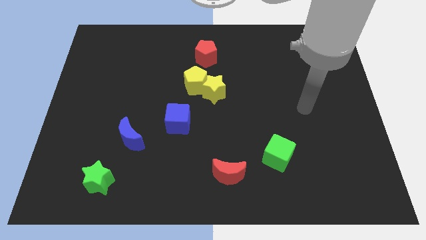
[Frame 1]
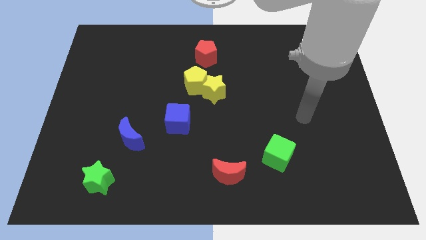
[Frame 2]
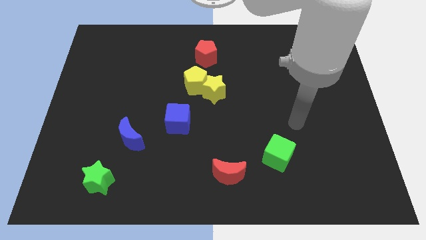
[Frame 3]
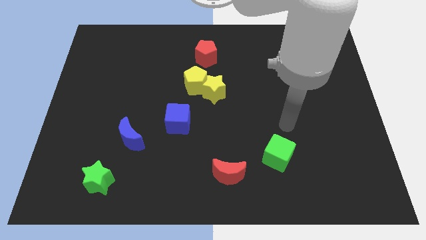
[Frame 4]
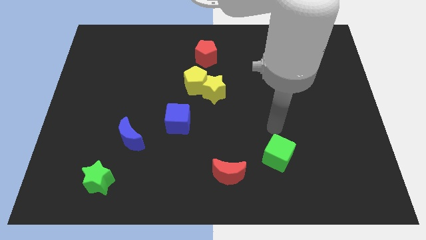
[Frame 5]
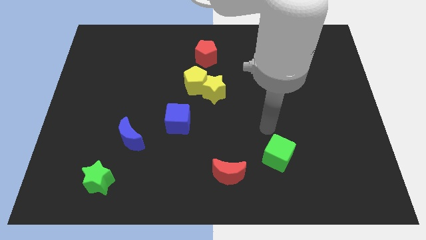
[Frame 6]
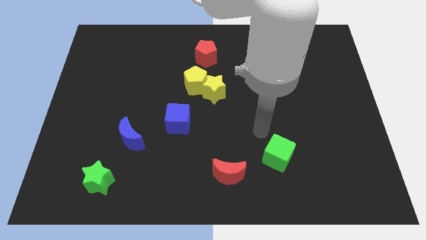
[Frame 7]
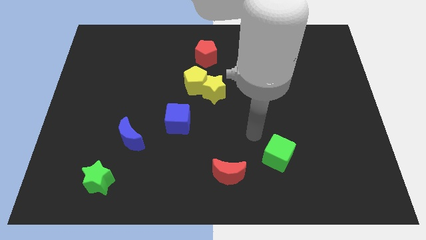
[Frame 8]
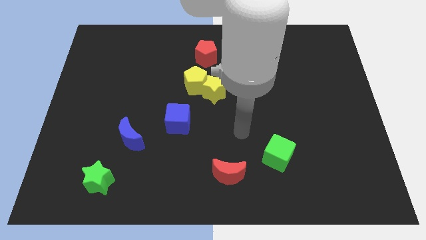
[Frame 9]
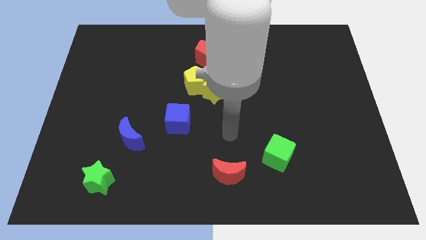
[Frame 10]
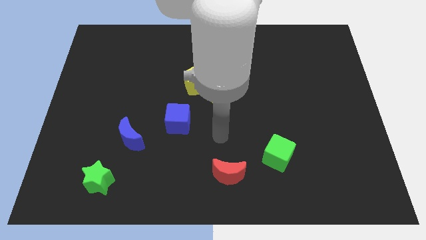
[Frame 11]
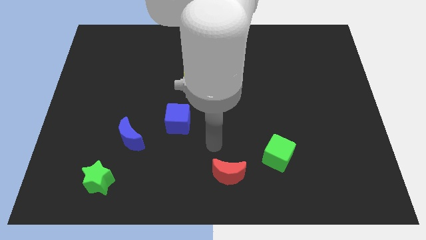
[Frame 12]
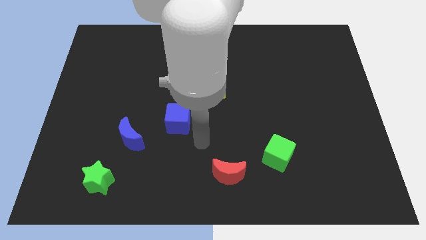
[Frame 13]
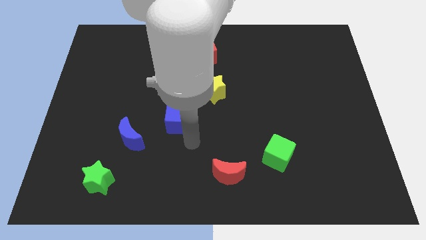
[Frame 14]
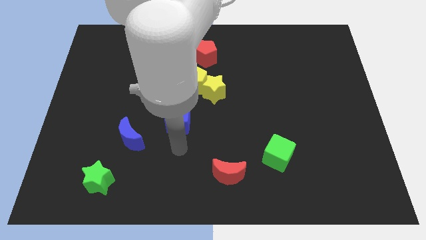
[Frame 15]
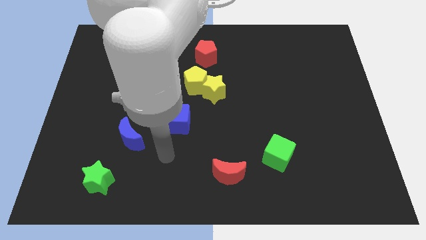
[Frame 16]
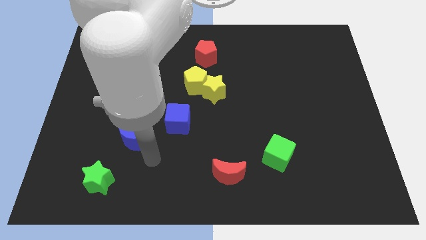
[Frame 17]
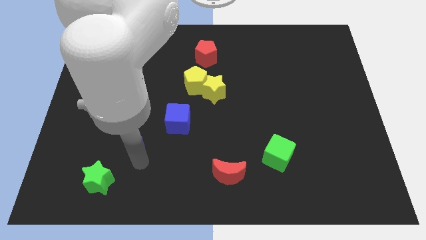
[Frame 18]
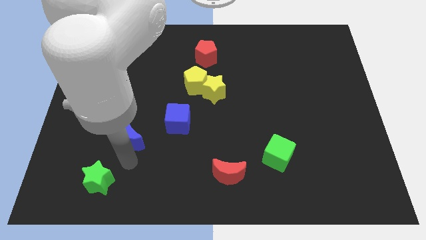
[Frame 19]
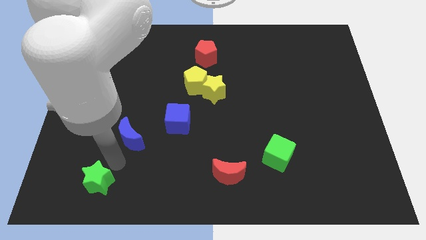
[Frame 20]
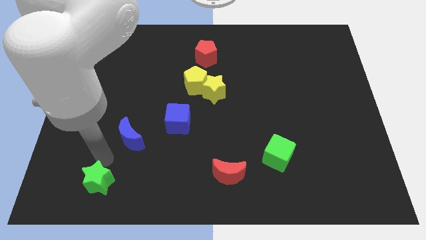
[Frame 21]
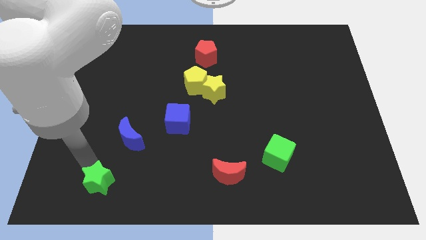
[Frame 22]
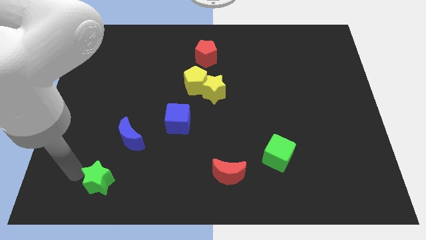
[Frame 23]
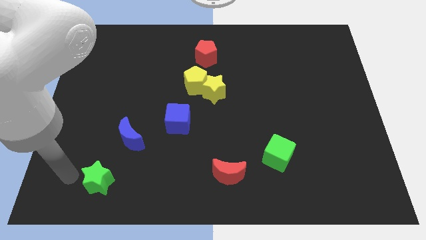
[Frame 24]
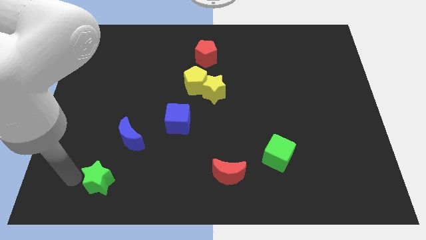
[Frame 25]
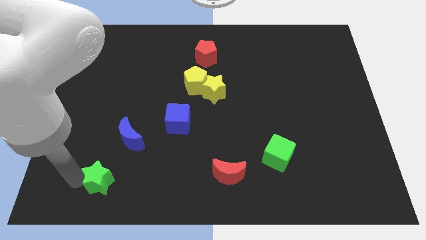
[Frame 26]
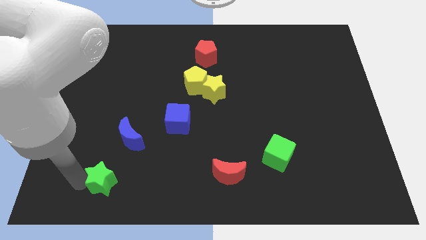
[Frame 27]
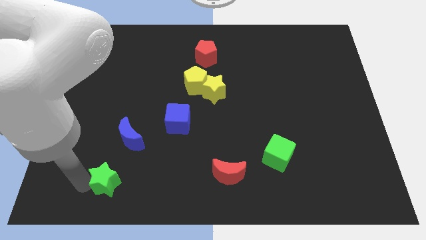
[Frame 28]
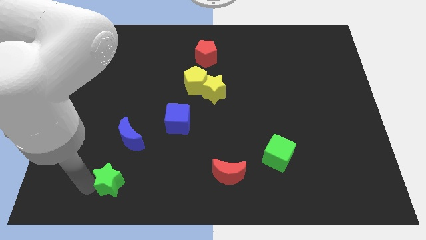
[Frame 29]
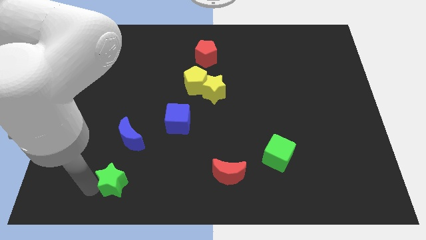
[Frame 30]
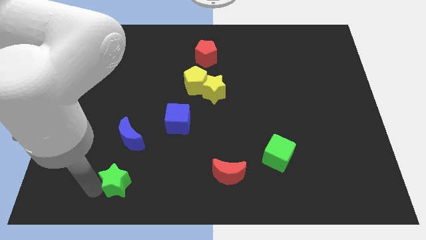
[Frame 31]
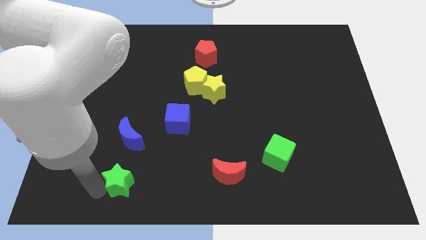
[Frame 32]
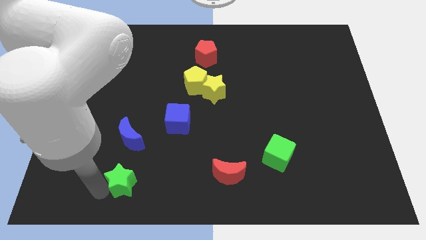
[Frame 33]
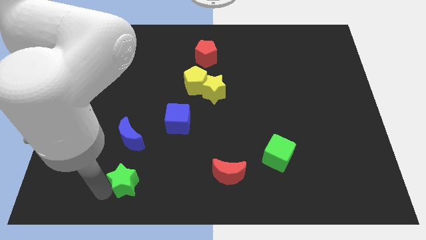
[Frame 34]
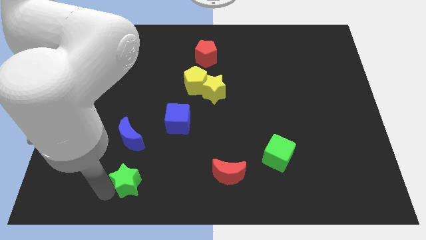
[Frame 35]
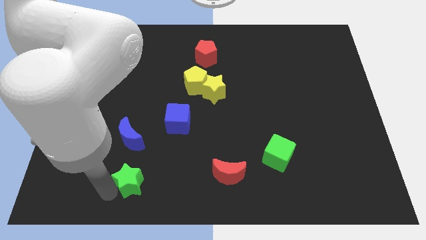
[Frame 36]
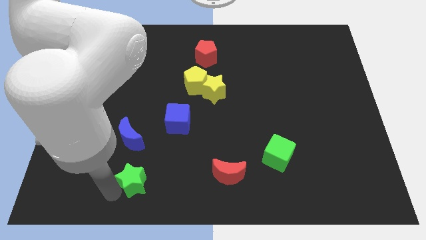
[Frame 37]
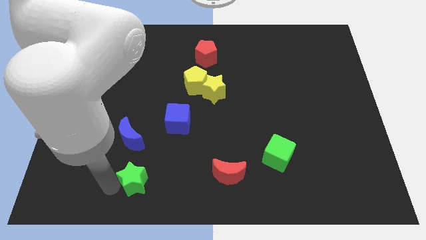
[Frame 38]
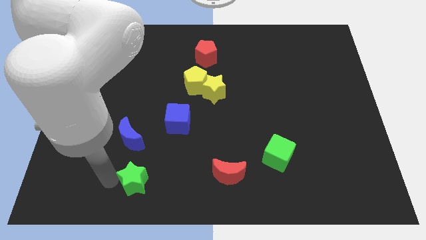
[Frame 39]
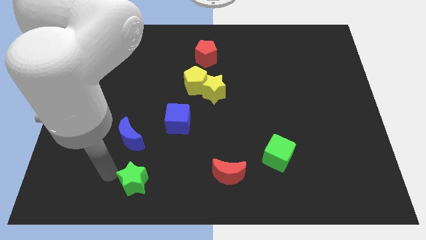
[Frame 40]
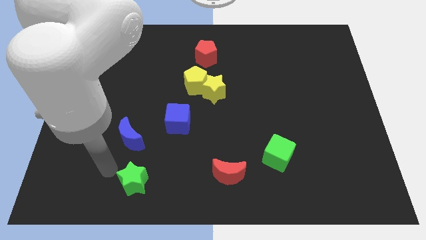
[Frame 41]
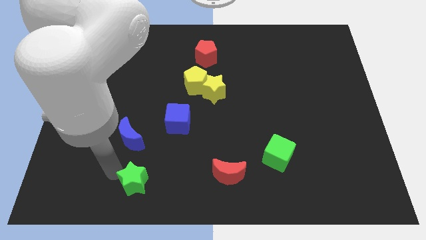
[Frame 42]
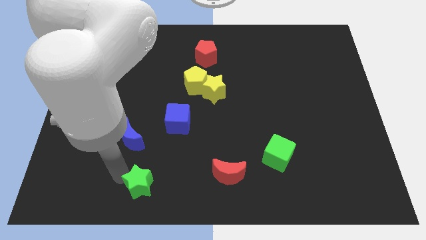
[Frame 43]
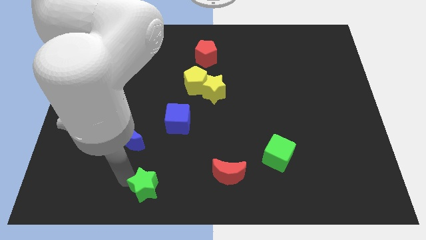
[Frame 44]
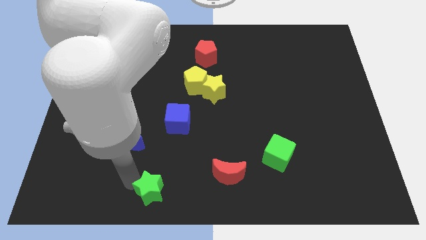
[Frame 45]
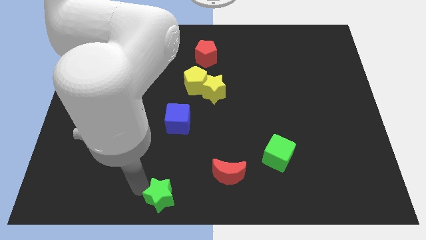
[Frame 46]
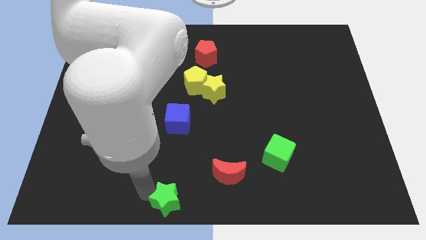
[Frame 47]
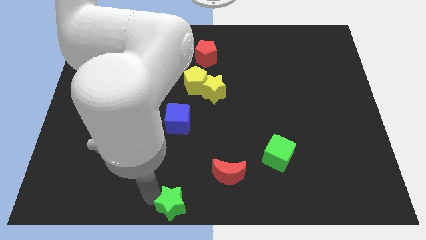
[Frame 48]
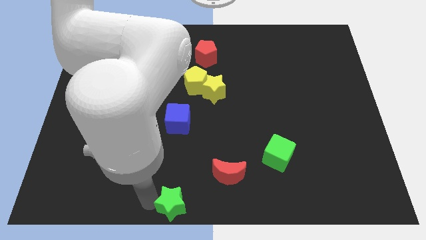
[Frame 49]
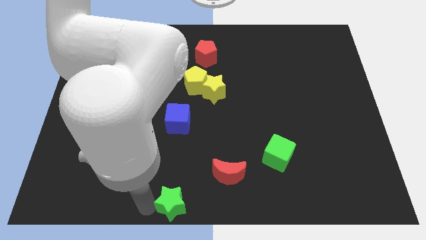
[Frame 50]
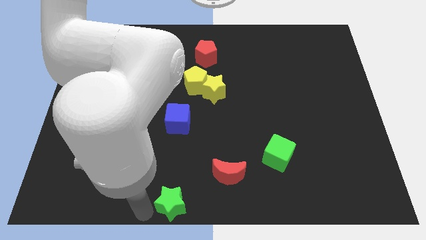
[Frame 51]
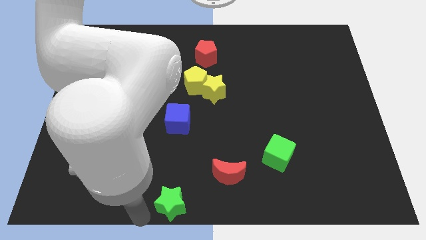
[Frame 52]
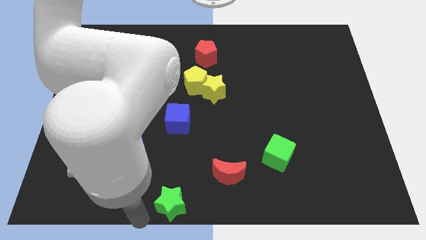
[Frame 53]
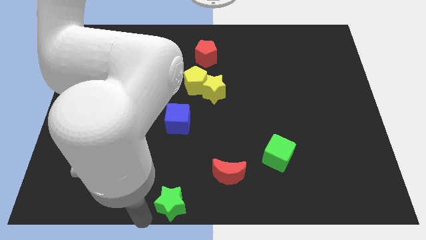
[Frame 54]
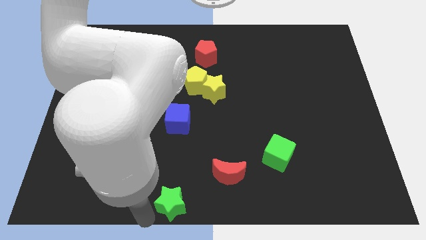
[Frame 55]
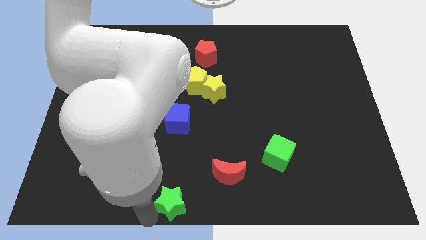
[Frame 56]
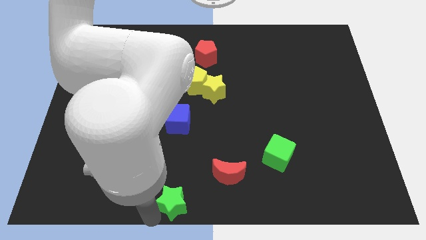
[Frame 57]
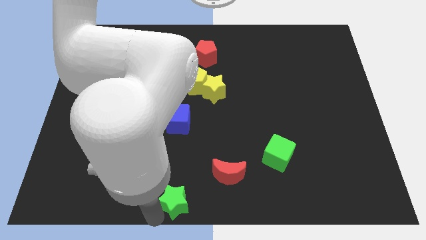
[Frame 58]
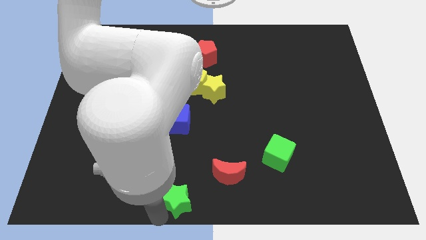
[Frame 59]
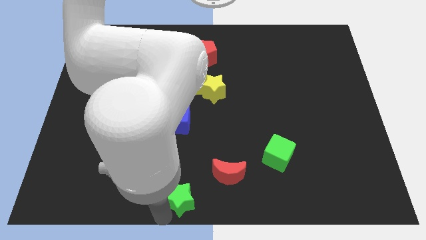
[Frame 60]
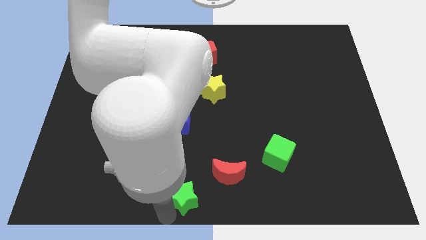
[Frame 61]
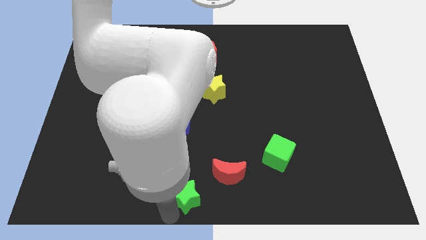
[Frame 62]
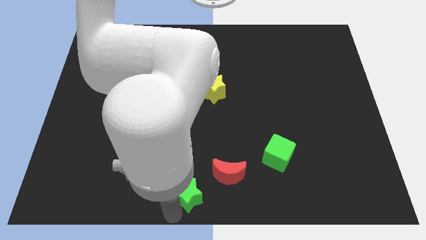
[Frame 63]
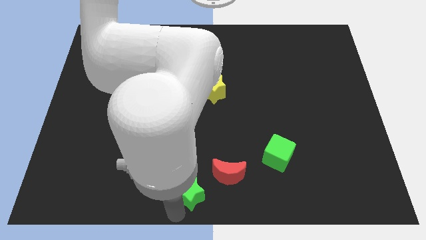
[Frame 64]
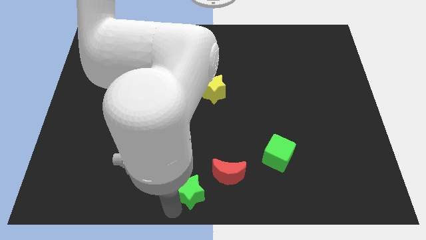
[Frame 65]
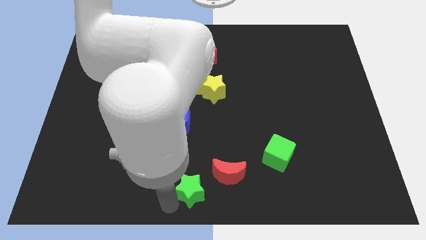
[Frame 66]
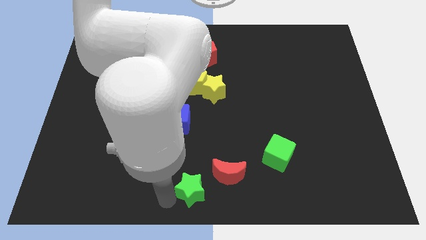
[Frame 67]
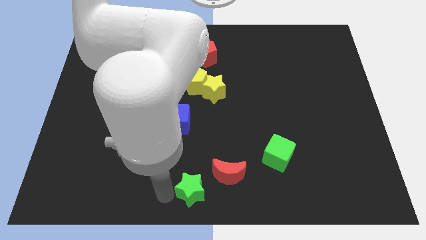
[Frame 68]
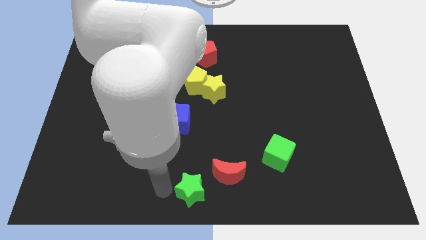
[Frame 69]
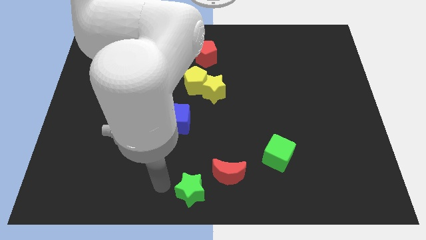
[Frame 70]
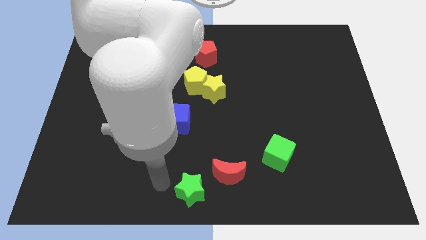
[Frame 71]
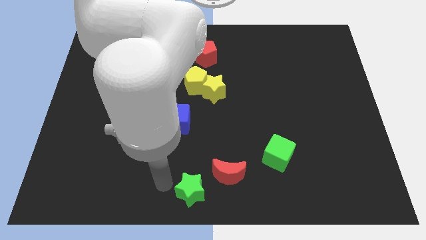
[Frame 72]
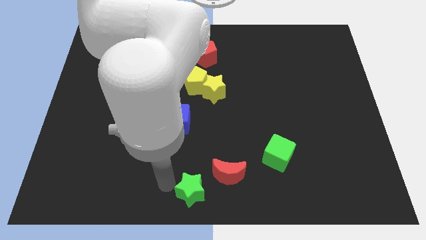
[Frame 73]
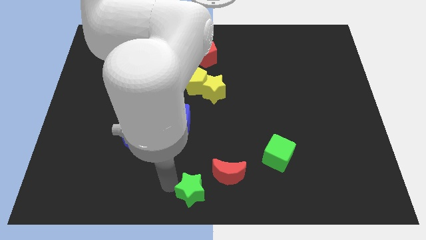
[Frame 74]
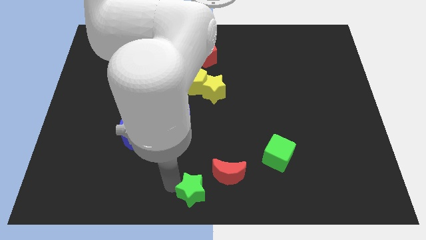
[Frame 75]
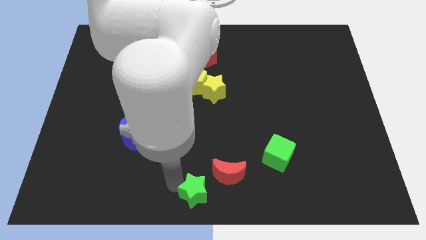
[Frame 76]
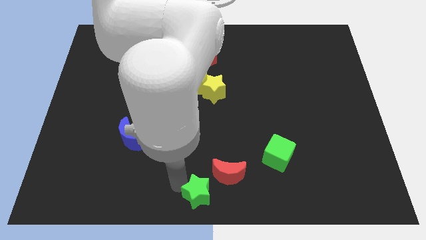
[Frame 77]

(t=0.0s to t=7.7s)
slide the green star to the right

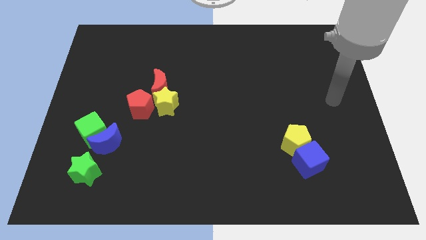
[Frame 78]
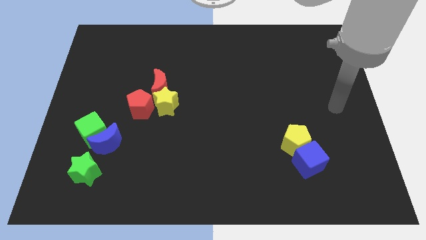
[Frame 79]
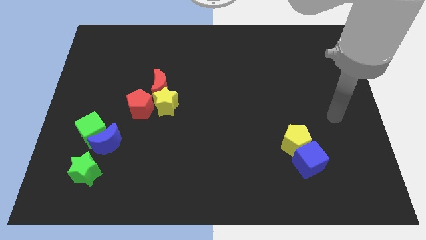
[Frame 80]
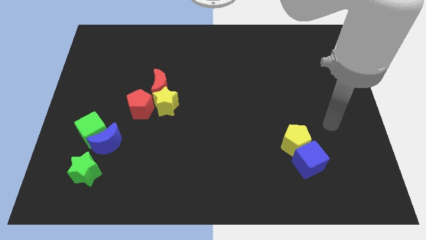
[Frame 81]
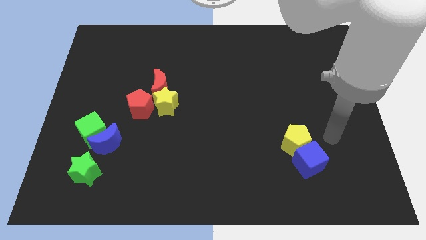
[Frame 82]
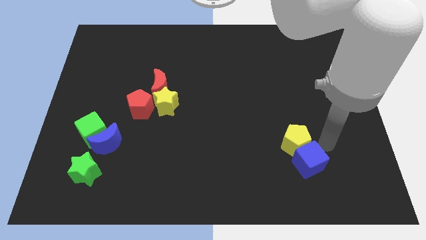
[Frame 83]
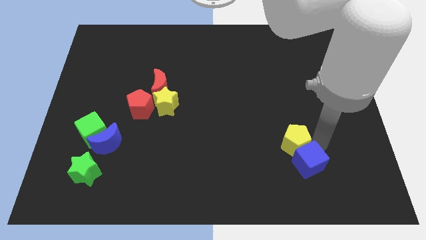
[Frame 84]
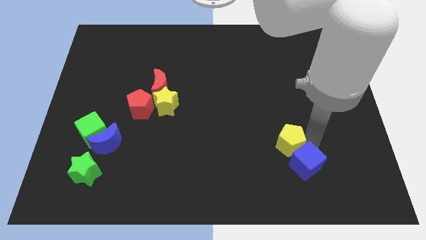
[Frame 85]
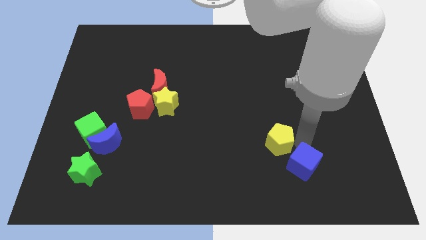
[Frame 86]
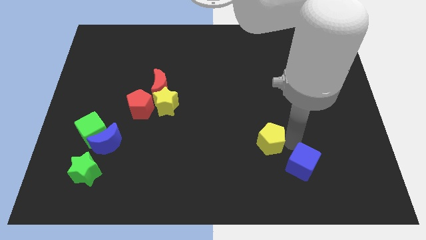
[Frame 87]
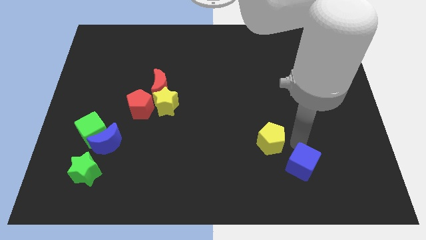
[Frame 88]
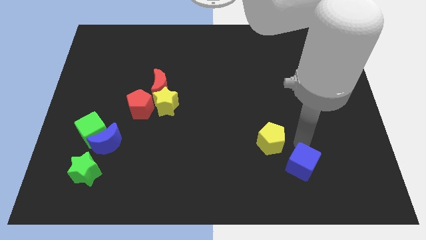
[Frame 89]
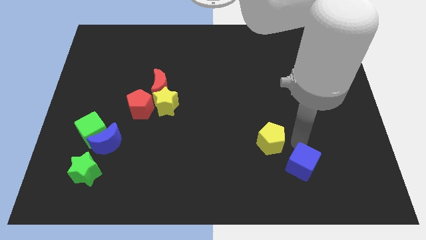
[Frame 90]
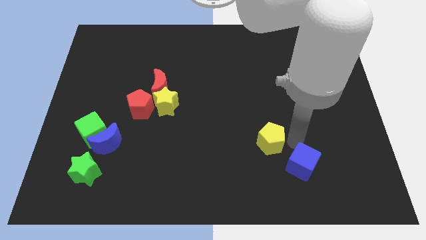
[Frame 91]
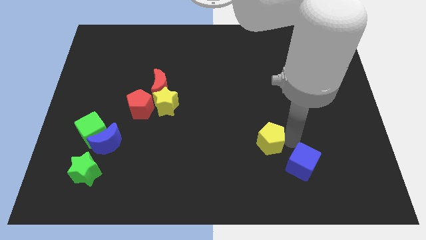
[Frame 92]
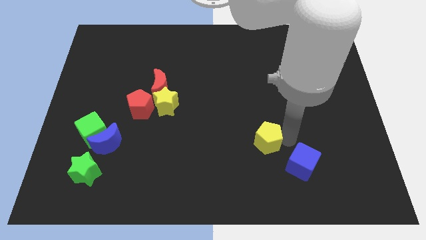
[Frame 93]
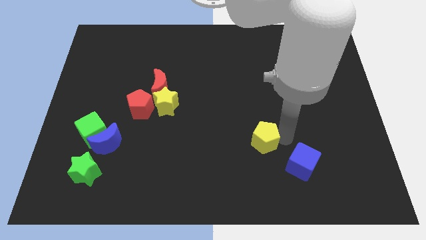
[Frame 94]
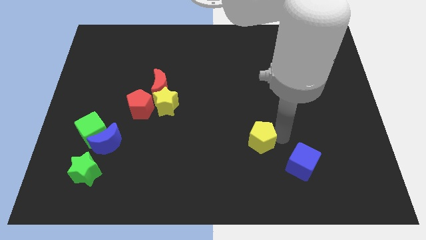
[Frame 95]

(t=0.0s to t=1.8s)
push the yellow pentagon somewhat to the left
